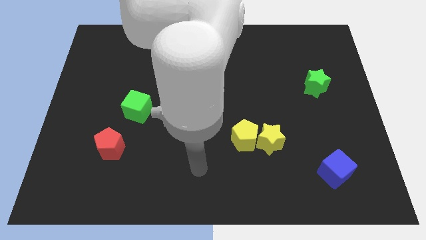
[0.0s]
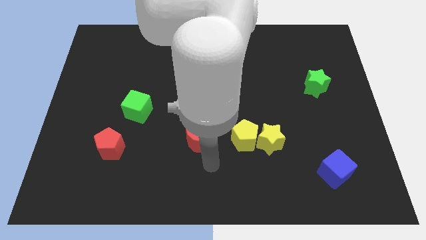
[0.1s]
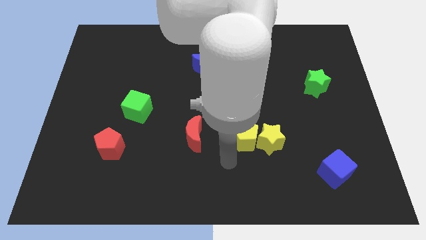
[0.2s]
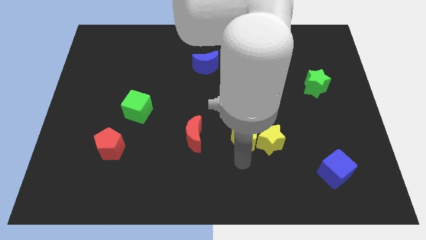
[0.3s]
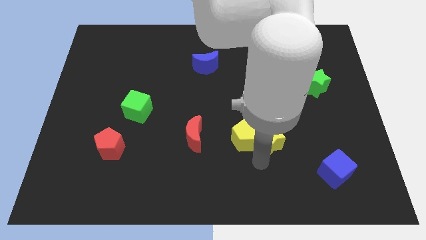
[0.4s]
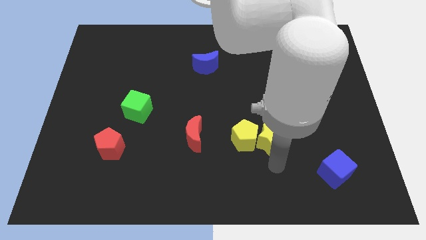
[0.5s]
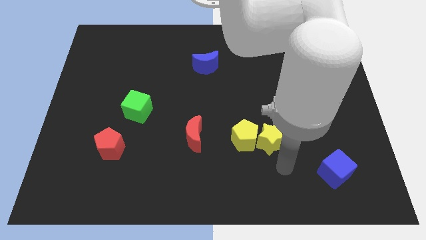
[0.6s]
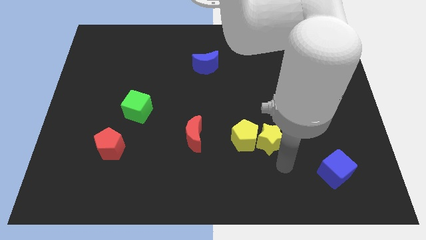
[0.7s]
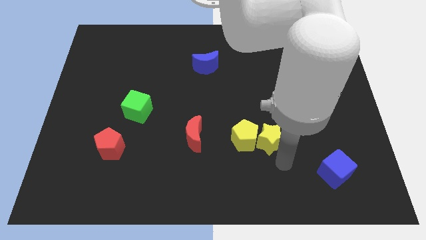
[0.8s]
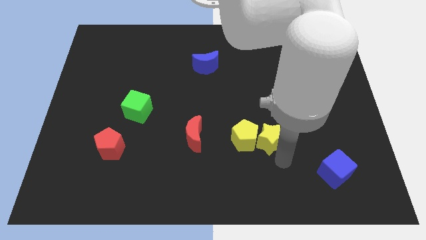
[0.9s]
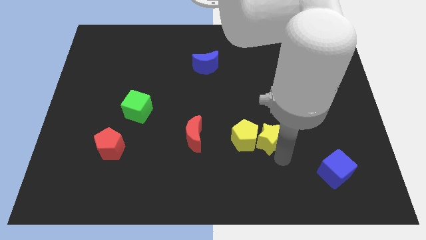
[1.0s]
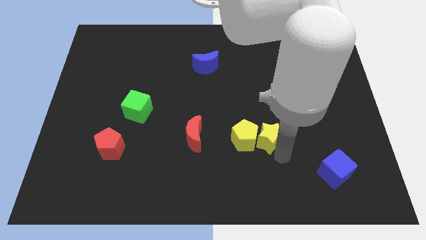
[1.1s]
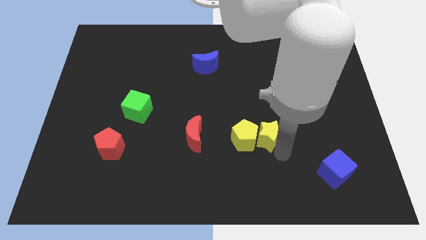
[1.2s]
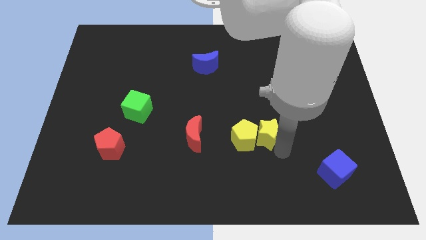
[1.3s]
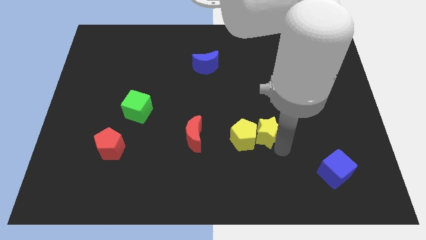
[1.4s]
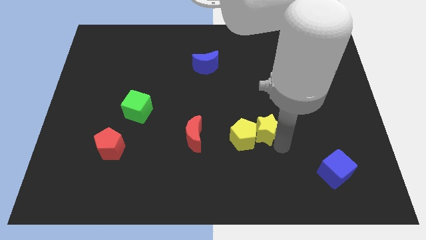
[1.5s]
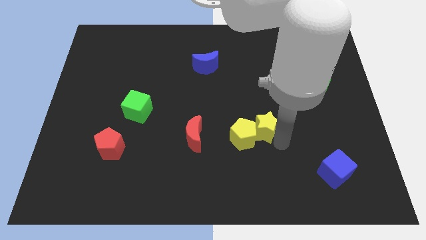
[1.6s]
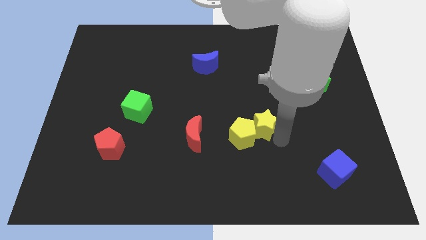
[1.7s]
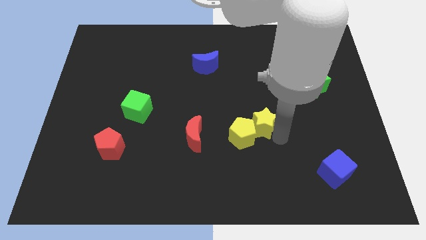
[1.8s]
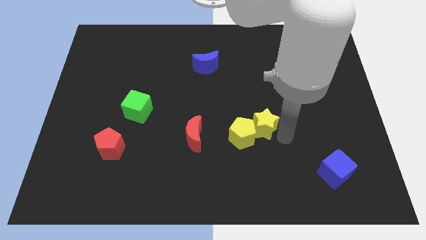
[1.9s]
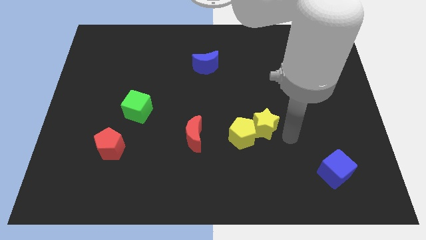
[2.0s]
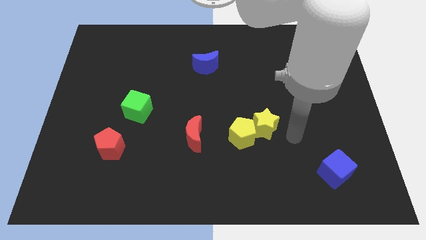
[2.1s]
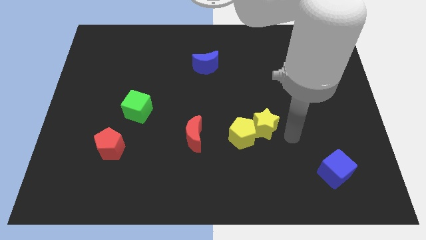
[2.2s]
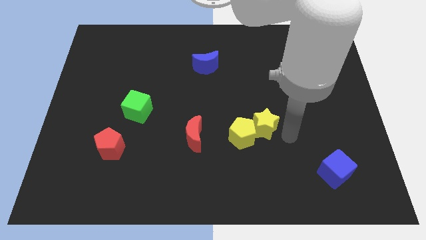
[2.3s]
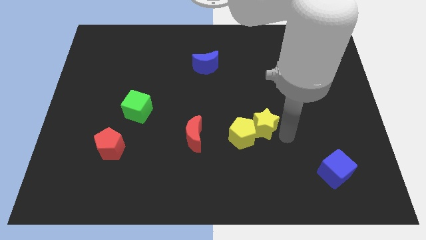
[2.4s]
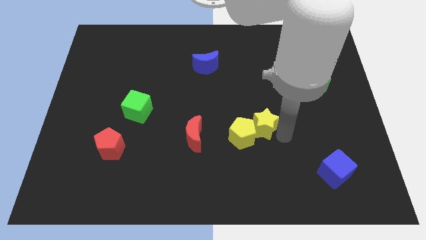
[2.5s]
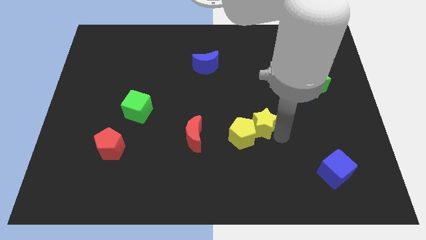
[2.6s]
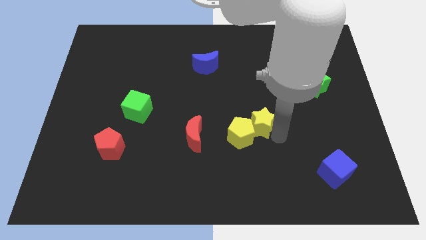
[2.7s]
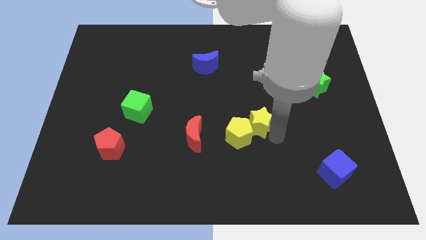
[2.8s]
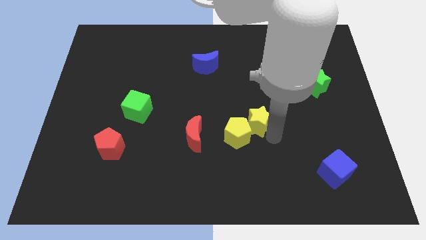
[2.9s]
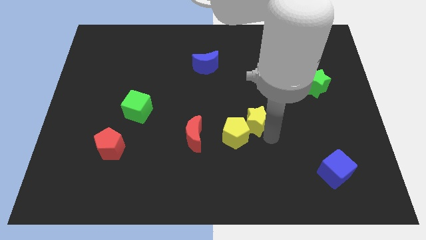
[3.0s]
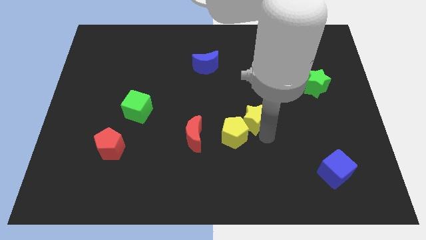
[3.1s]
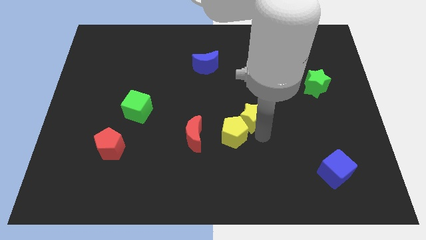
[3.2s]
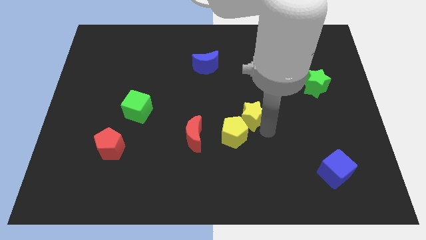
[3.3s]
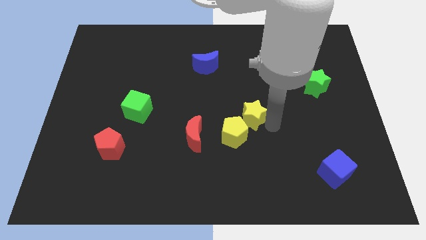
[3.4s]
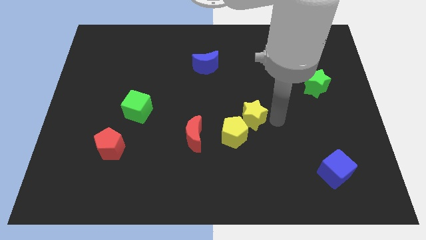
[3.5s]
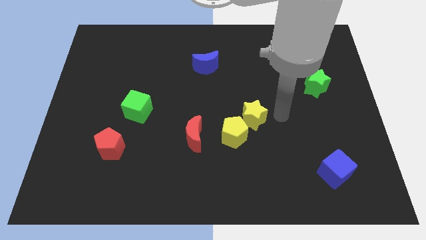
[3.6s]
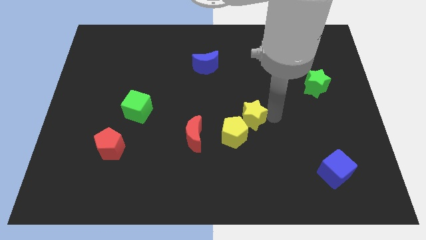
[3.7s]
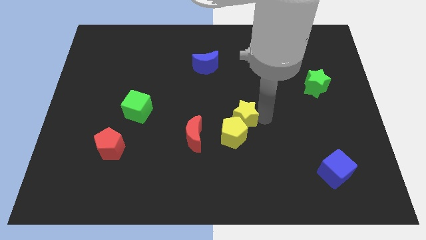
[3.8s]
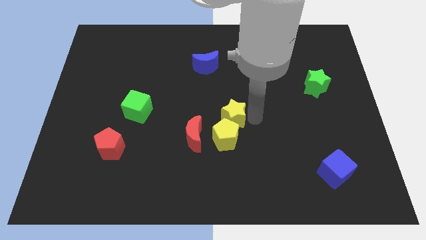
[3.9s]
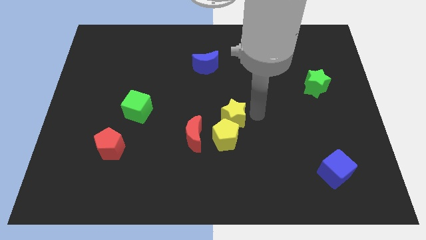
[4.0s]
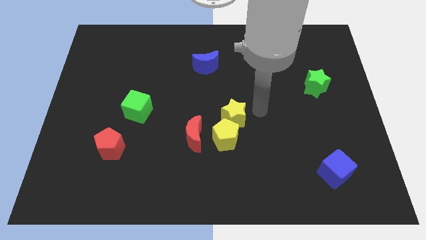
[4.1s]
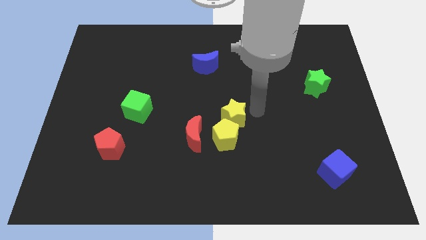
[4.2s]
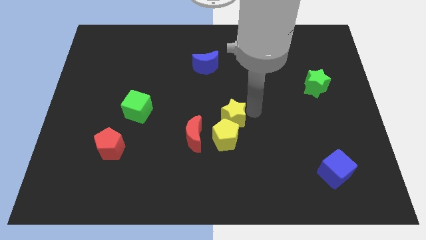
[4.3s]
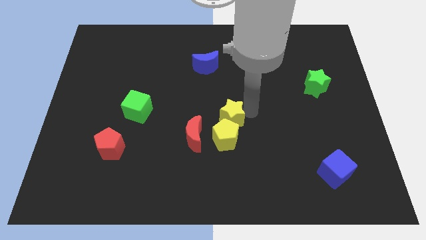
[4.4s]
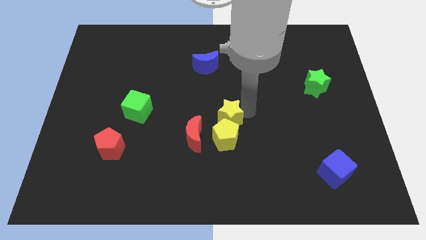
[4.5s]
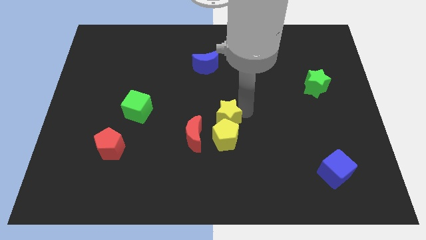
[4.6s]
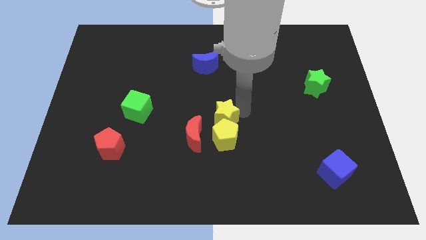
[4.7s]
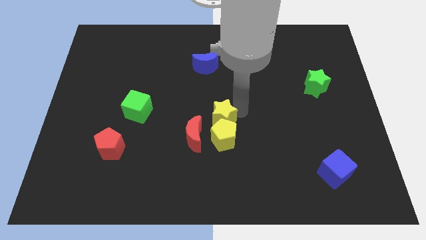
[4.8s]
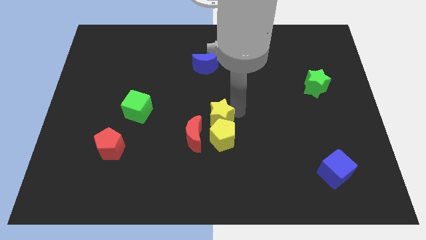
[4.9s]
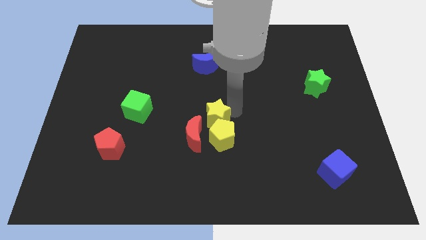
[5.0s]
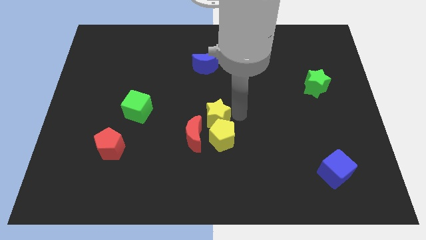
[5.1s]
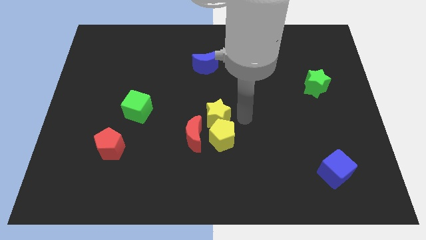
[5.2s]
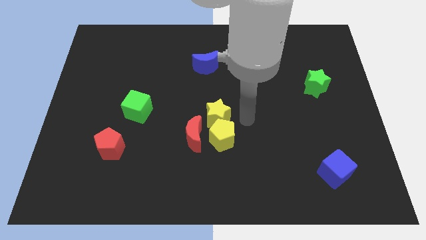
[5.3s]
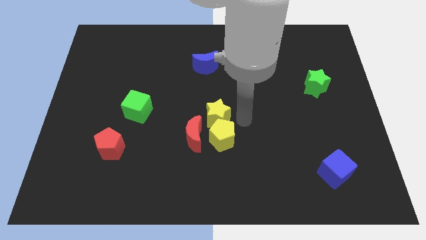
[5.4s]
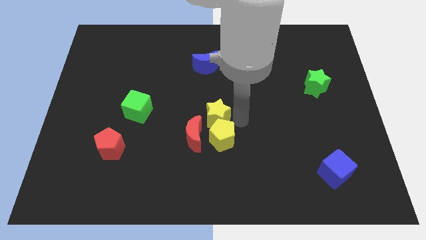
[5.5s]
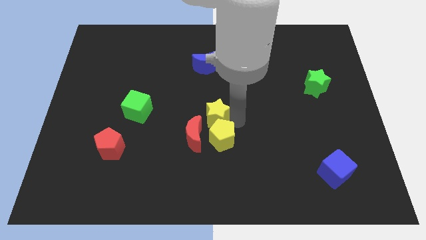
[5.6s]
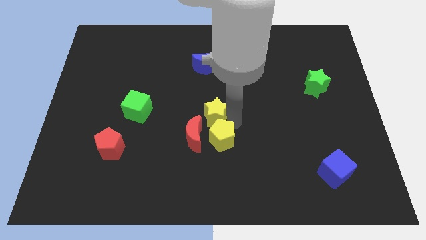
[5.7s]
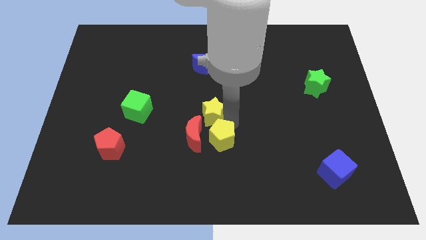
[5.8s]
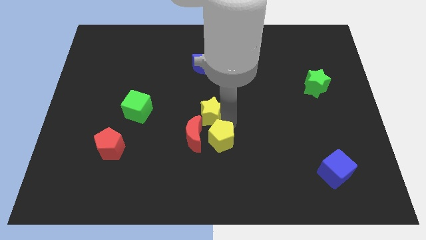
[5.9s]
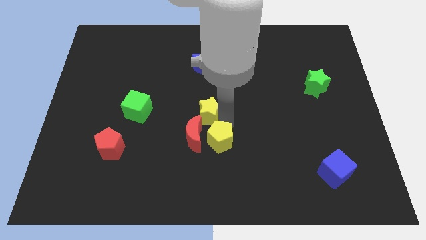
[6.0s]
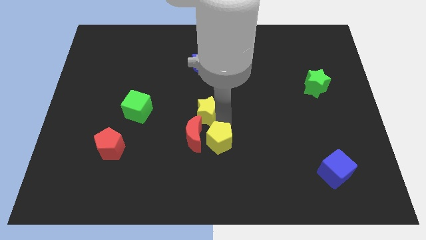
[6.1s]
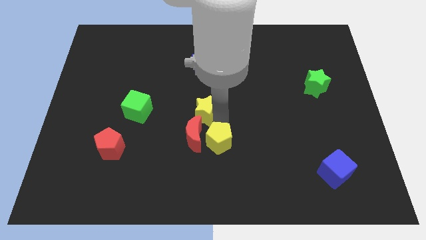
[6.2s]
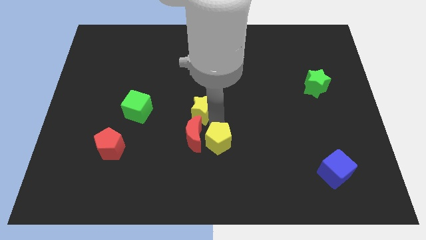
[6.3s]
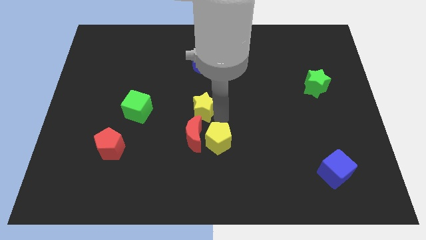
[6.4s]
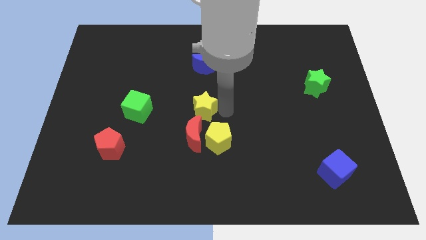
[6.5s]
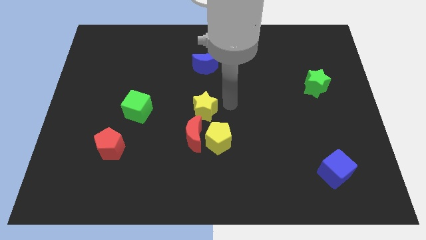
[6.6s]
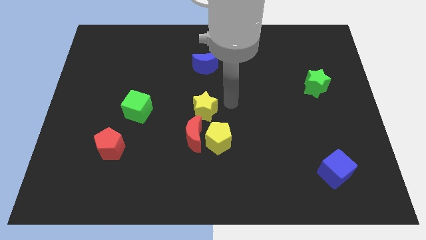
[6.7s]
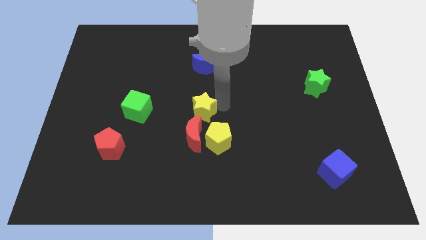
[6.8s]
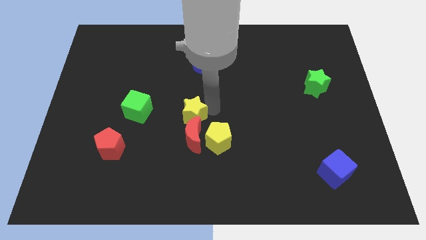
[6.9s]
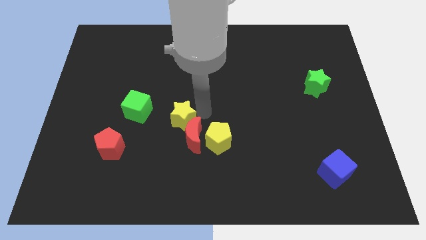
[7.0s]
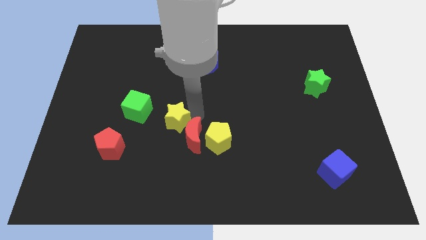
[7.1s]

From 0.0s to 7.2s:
put the yellow star to the bottom right side of the green cube

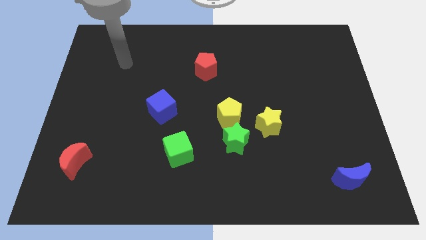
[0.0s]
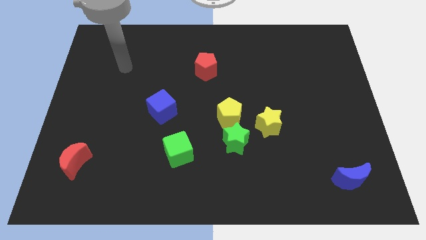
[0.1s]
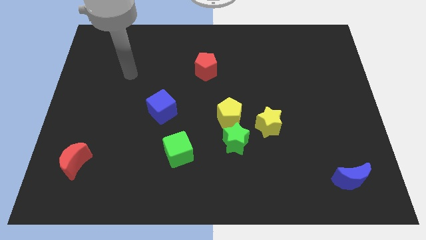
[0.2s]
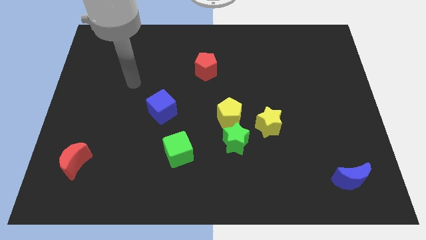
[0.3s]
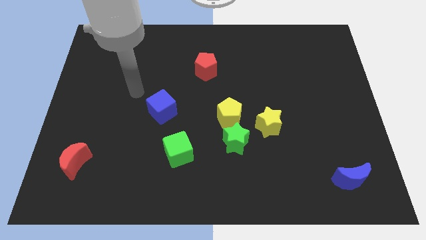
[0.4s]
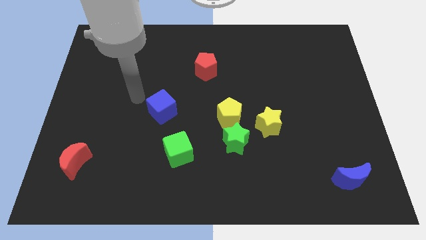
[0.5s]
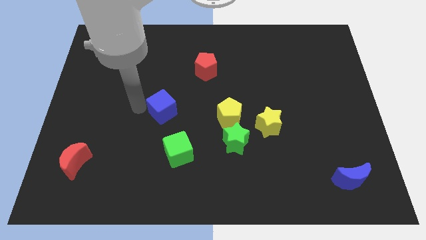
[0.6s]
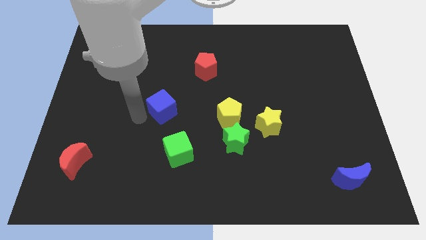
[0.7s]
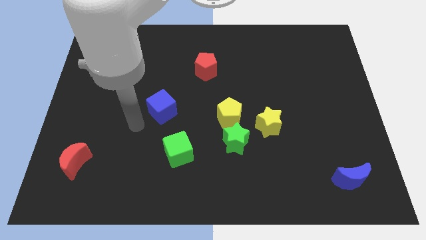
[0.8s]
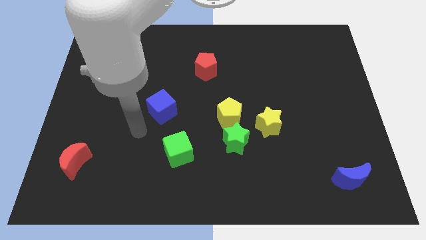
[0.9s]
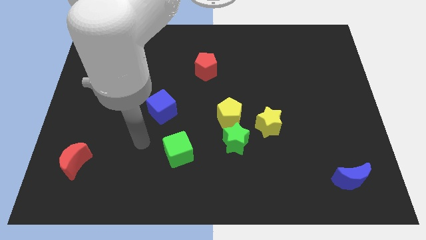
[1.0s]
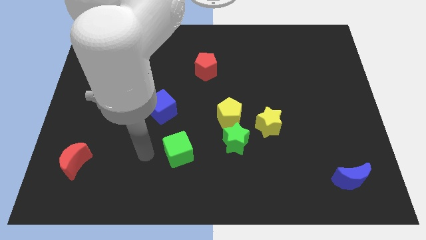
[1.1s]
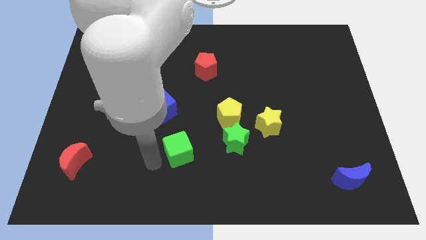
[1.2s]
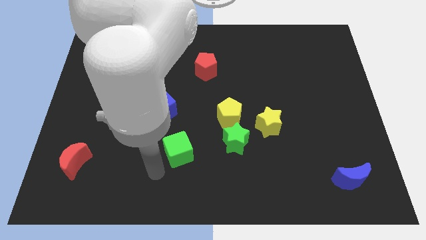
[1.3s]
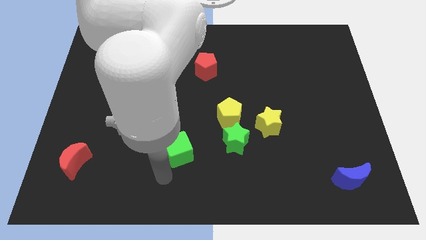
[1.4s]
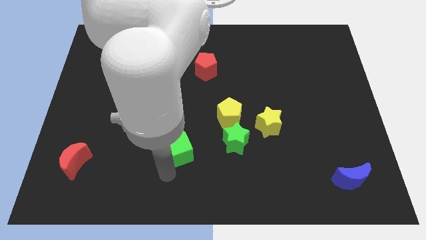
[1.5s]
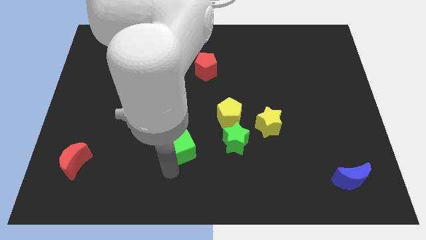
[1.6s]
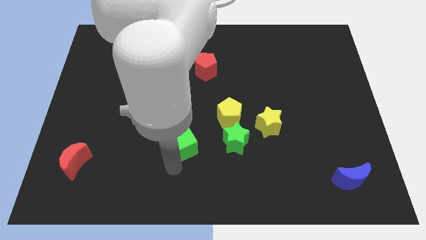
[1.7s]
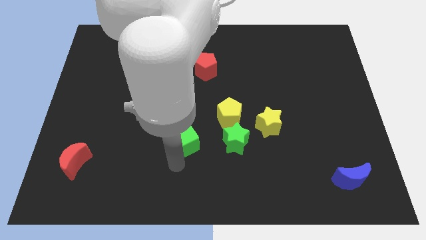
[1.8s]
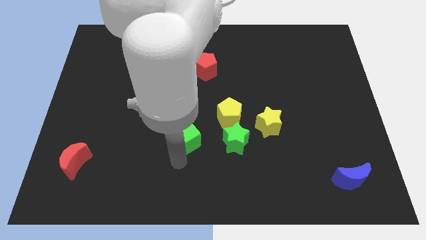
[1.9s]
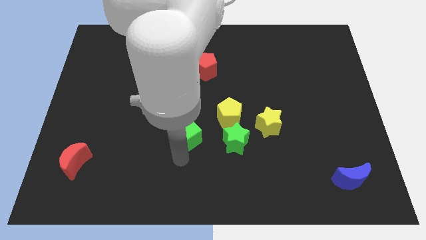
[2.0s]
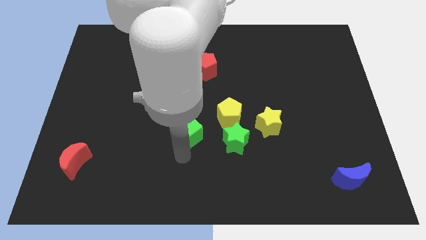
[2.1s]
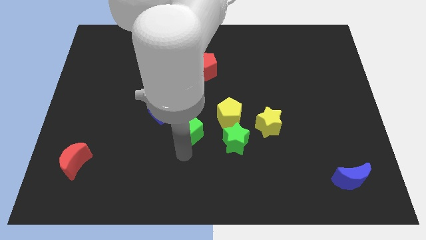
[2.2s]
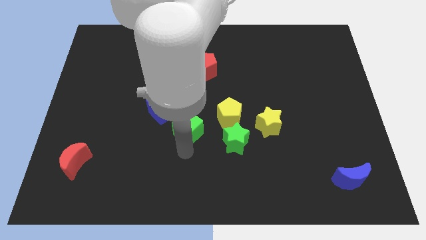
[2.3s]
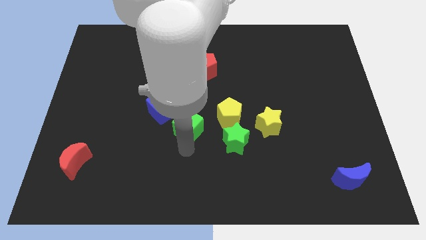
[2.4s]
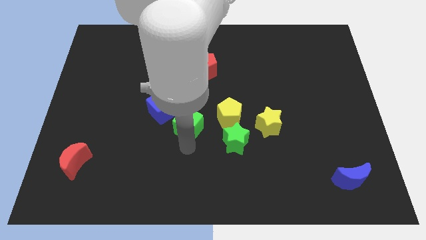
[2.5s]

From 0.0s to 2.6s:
move the green cube right of the blue cube
